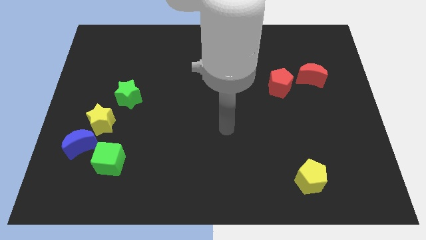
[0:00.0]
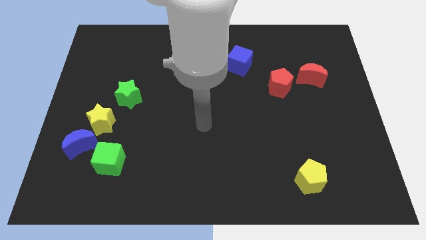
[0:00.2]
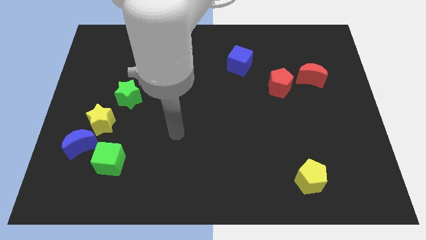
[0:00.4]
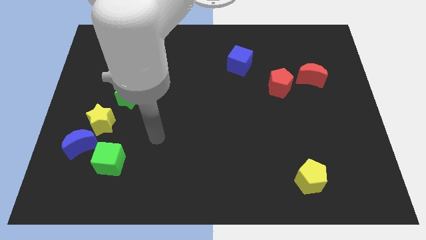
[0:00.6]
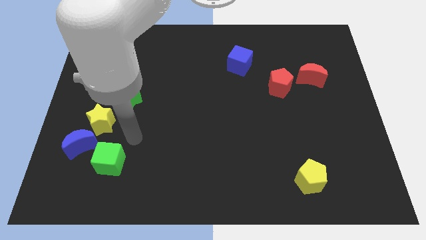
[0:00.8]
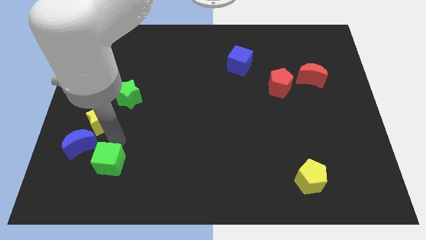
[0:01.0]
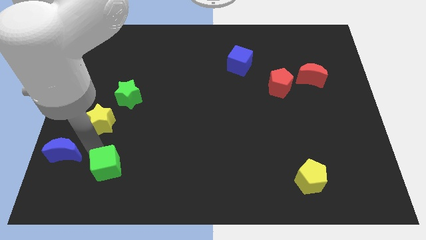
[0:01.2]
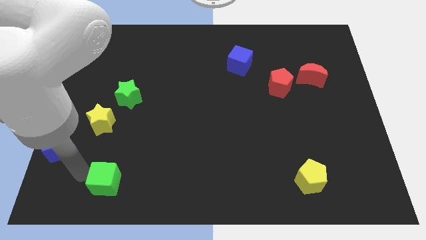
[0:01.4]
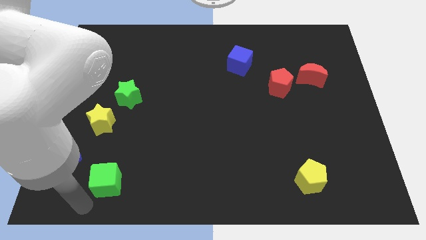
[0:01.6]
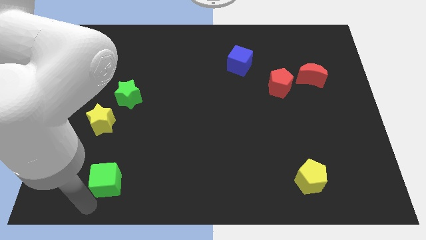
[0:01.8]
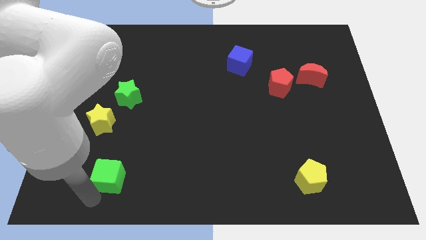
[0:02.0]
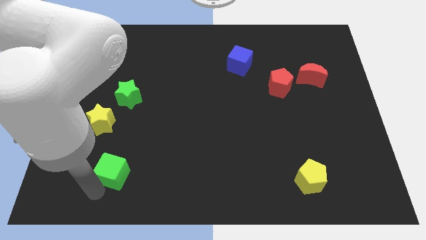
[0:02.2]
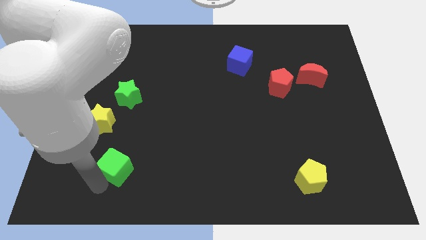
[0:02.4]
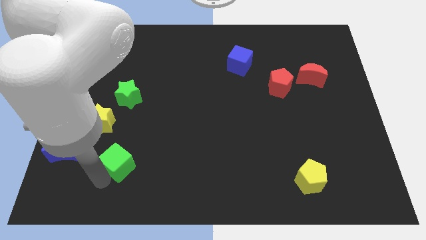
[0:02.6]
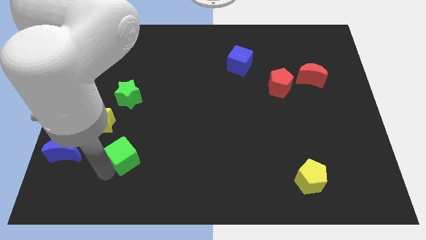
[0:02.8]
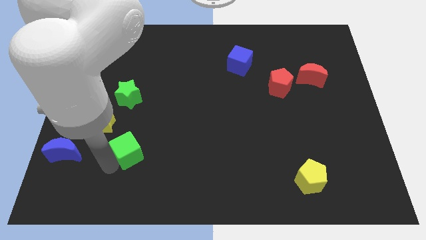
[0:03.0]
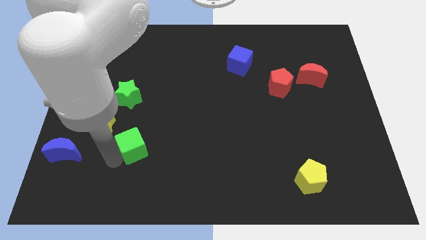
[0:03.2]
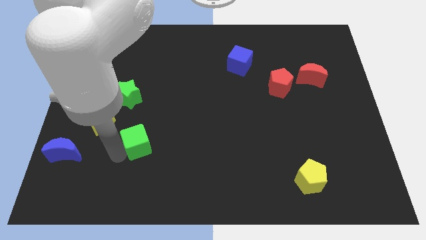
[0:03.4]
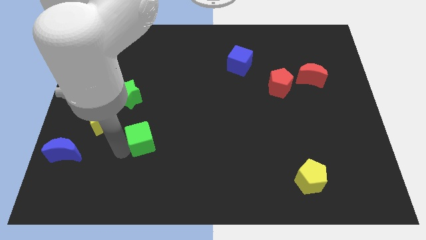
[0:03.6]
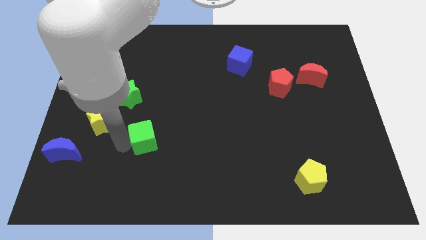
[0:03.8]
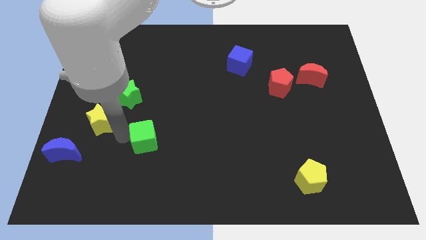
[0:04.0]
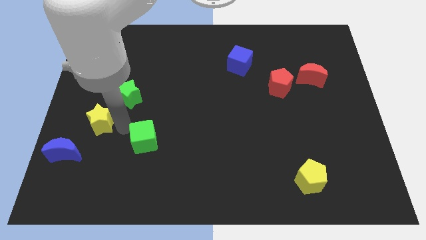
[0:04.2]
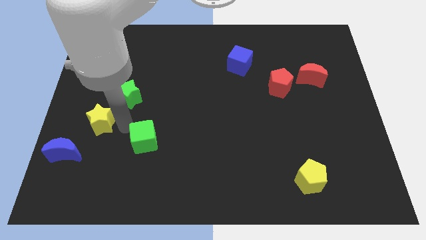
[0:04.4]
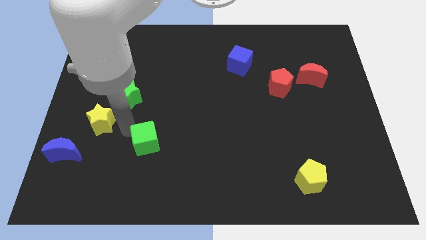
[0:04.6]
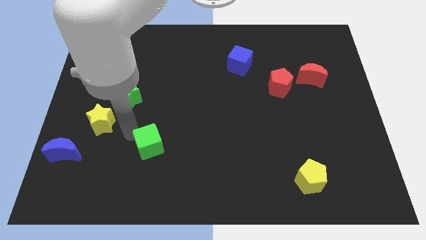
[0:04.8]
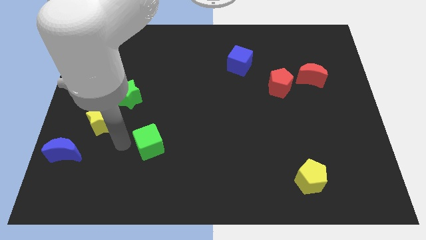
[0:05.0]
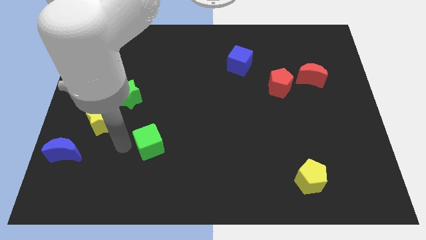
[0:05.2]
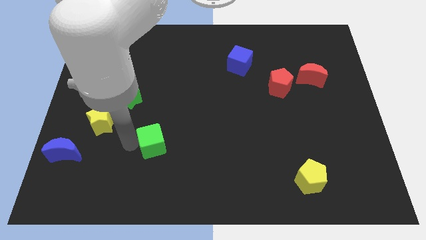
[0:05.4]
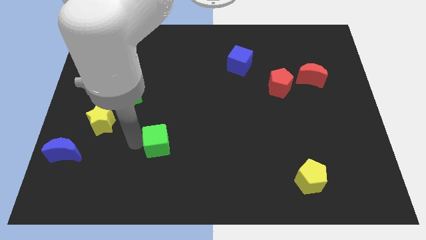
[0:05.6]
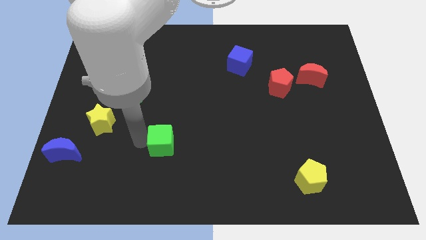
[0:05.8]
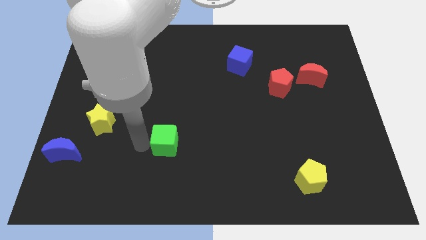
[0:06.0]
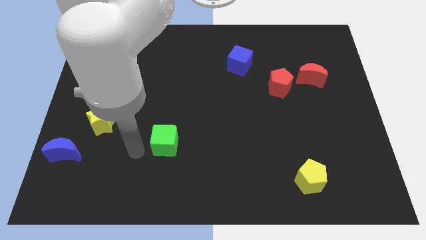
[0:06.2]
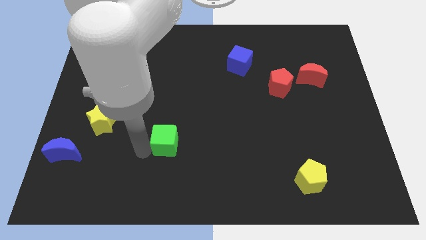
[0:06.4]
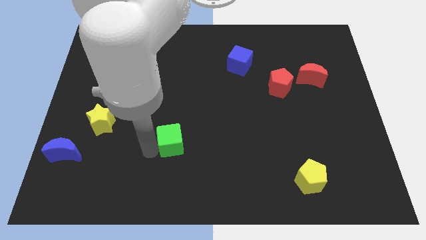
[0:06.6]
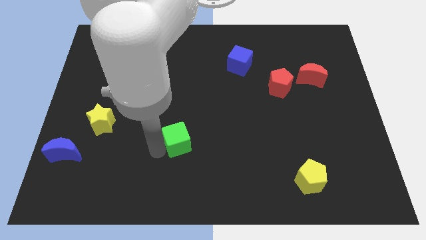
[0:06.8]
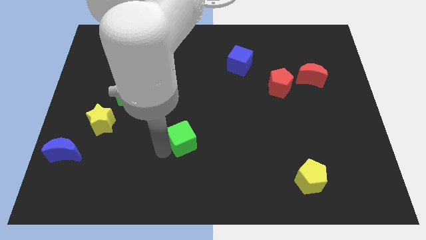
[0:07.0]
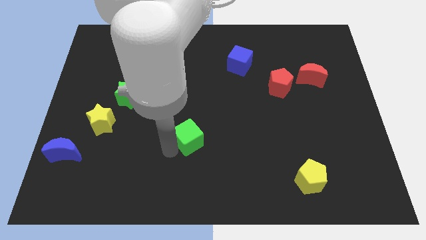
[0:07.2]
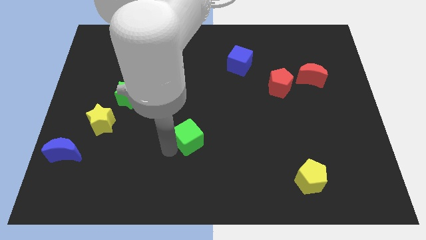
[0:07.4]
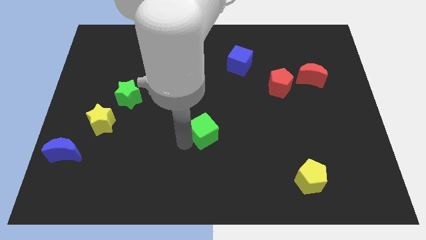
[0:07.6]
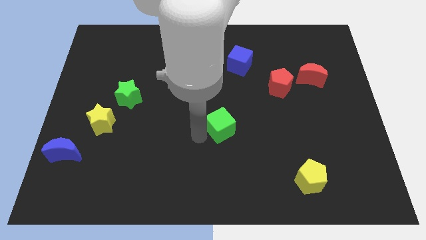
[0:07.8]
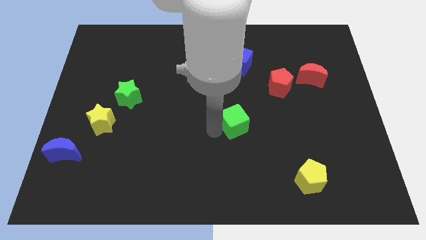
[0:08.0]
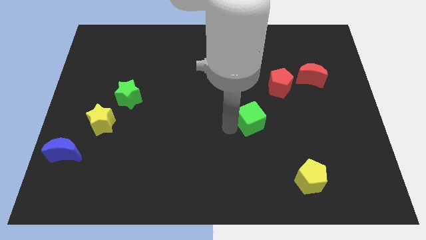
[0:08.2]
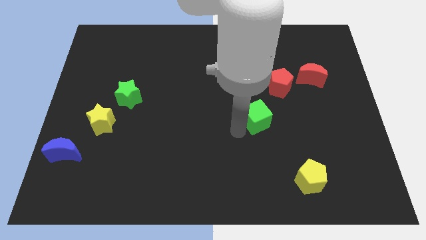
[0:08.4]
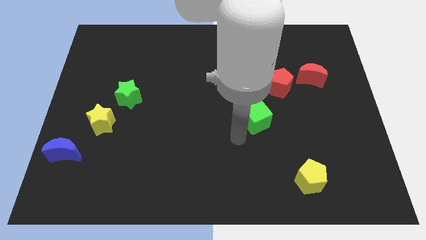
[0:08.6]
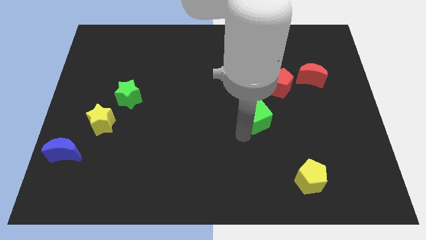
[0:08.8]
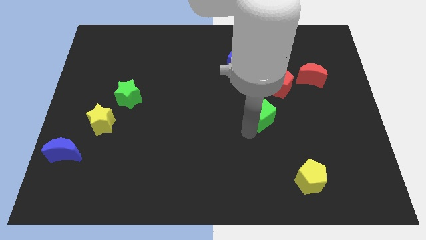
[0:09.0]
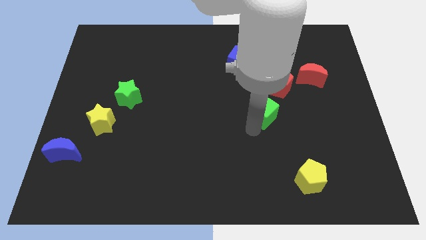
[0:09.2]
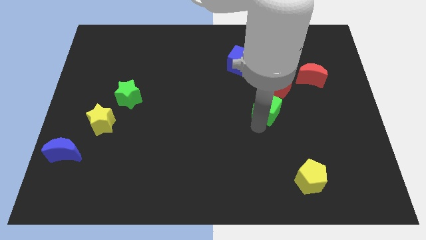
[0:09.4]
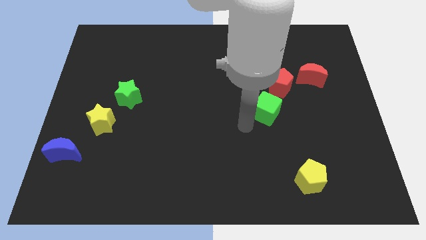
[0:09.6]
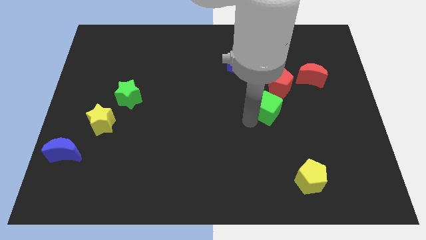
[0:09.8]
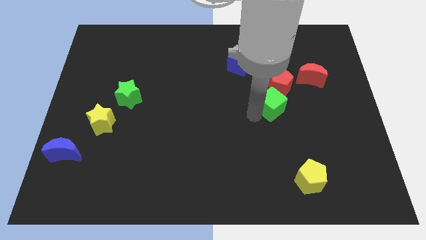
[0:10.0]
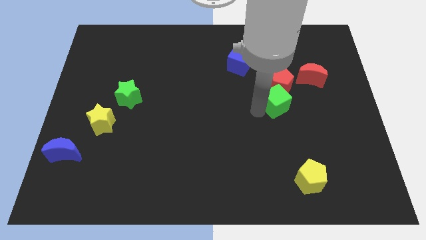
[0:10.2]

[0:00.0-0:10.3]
move the green cube to the bottom left of the red moon
